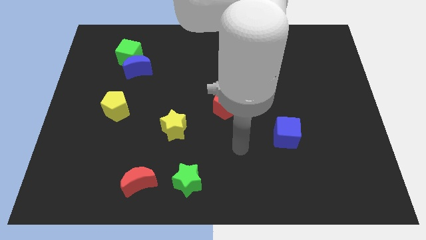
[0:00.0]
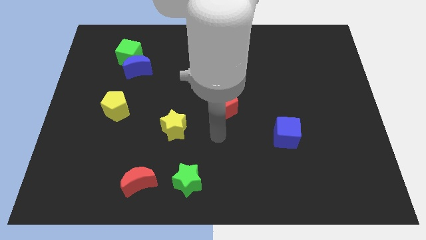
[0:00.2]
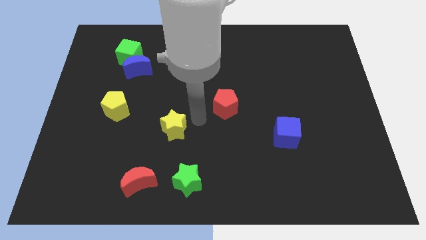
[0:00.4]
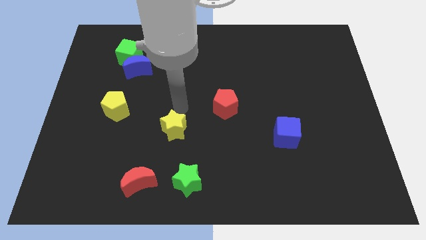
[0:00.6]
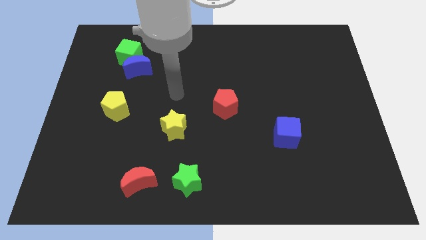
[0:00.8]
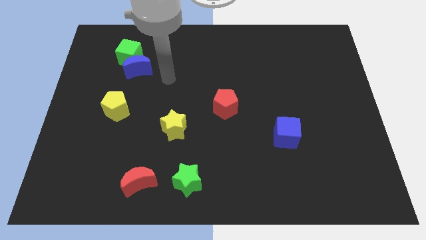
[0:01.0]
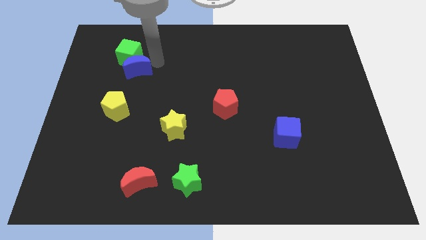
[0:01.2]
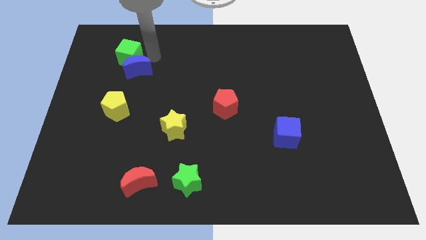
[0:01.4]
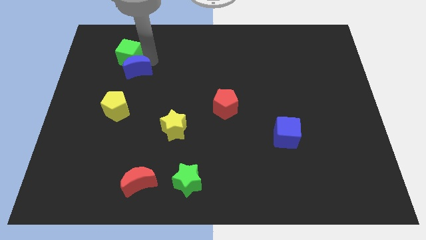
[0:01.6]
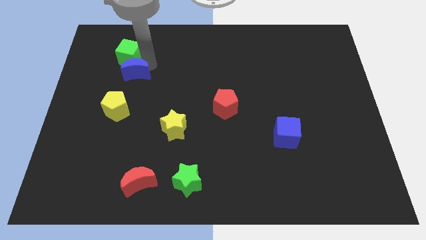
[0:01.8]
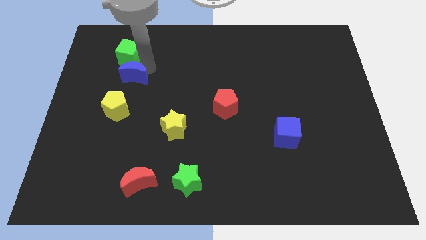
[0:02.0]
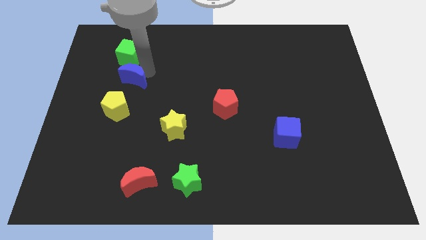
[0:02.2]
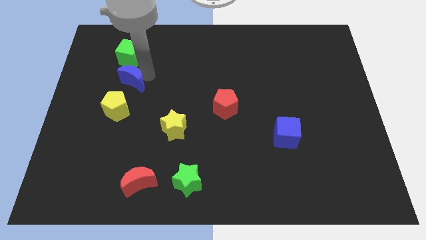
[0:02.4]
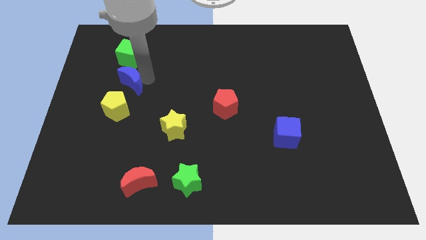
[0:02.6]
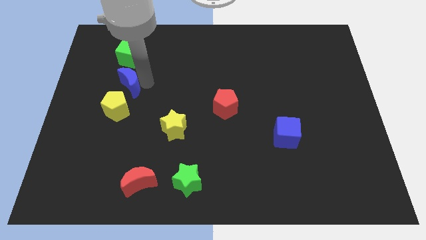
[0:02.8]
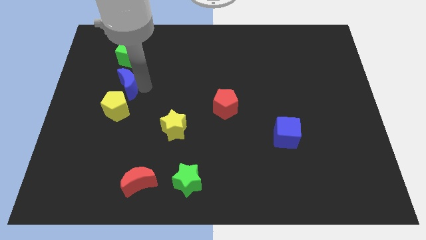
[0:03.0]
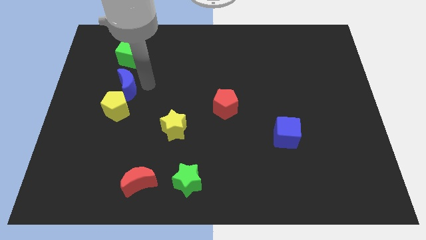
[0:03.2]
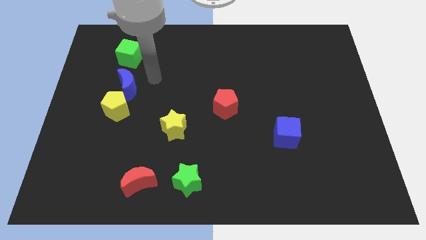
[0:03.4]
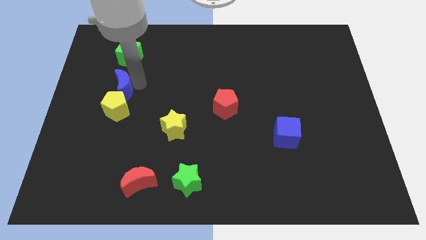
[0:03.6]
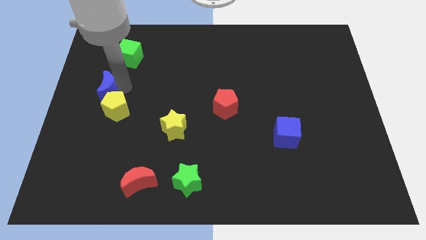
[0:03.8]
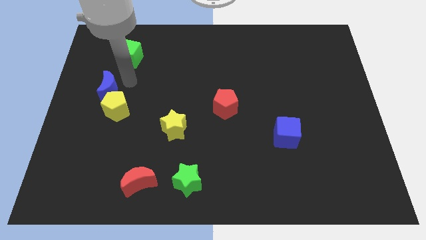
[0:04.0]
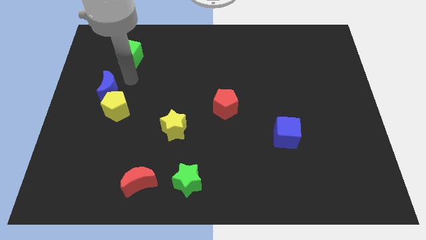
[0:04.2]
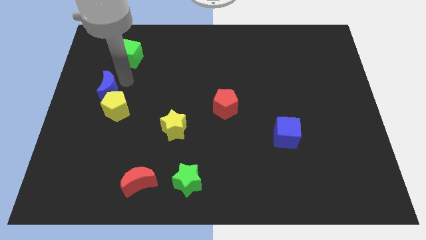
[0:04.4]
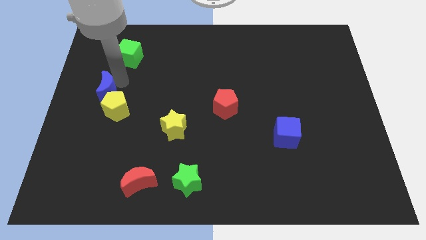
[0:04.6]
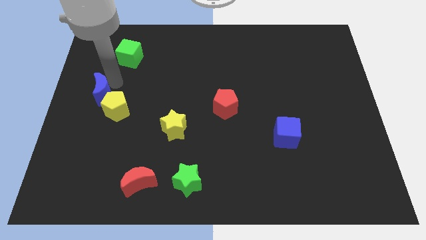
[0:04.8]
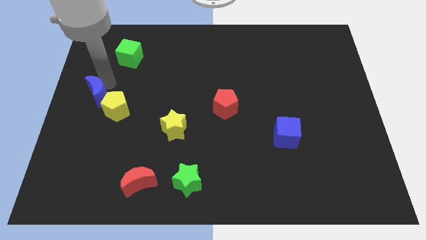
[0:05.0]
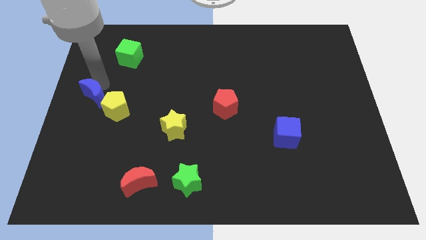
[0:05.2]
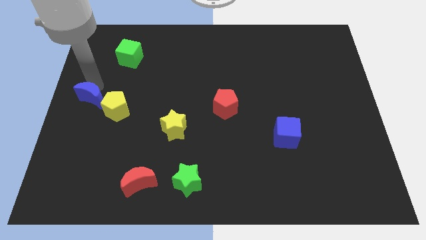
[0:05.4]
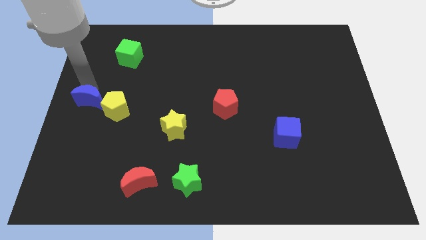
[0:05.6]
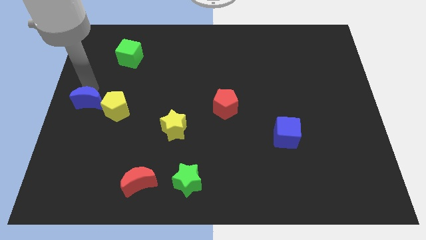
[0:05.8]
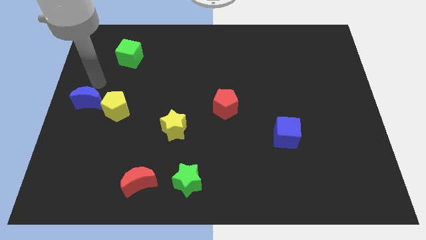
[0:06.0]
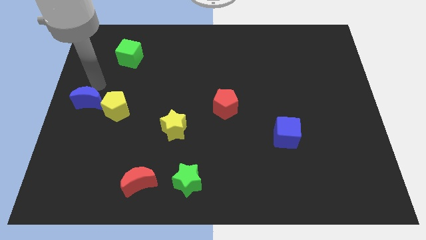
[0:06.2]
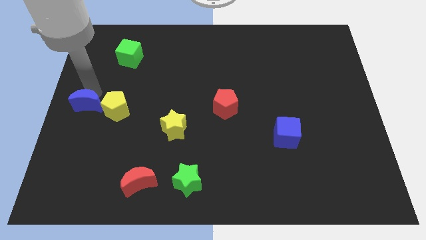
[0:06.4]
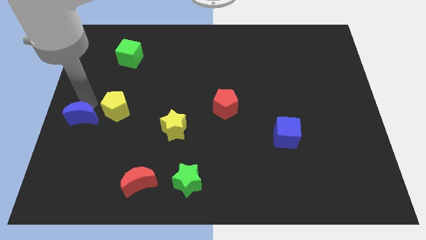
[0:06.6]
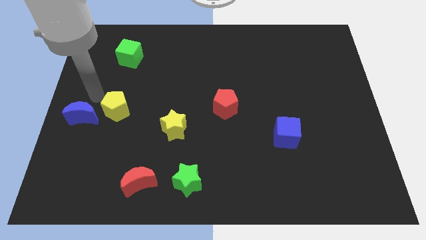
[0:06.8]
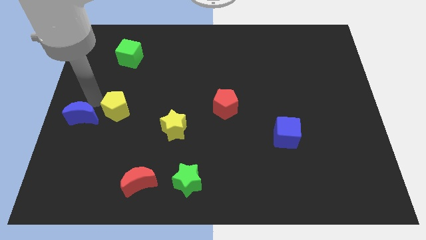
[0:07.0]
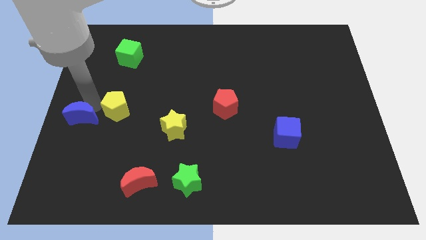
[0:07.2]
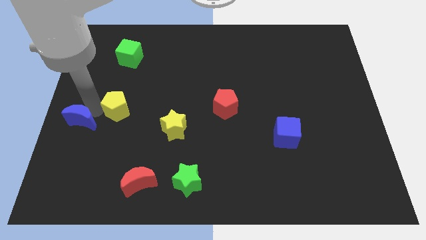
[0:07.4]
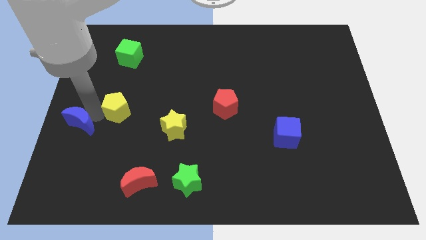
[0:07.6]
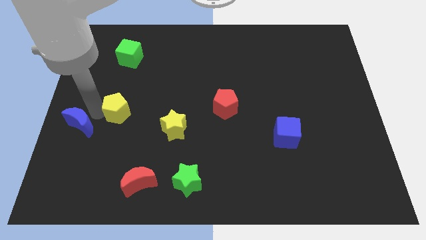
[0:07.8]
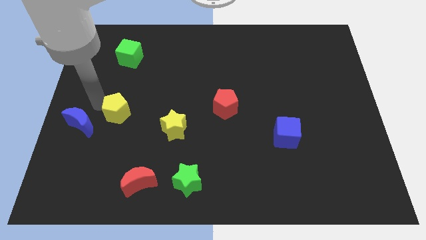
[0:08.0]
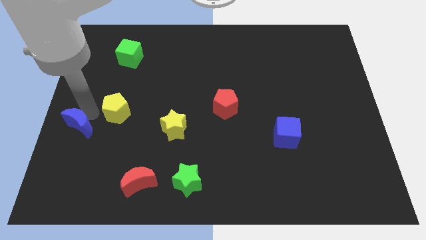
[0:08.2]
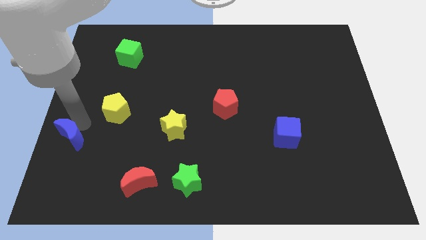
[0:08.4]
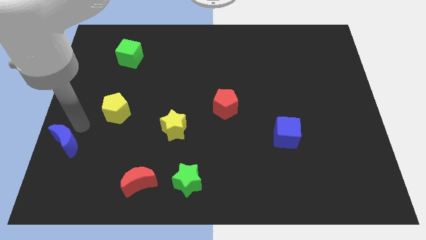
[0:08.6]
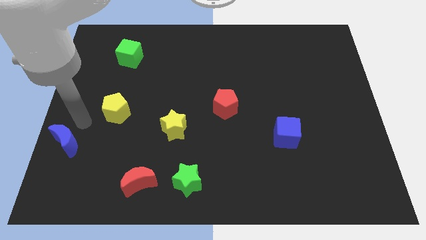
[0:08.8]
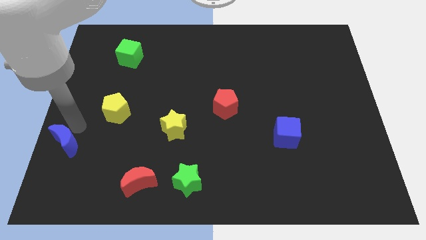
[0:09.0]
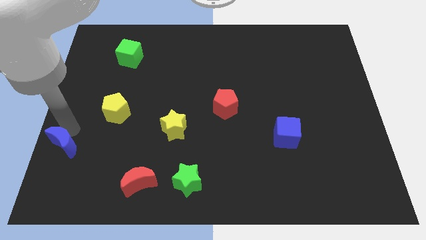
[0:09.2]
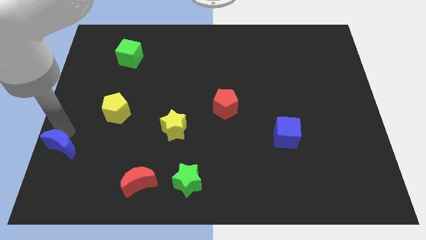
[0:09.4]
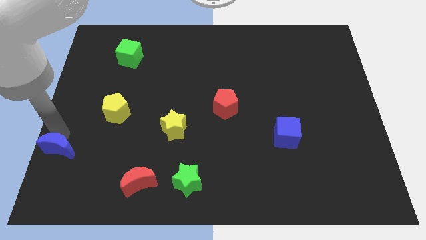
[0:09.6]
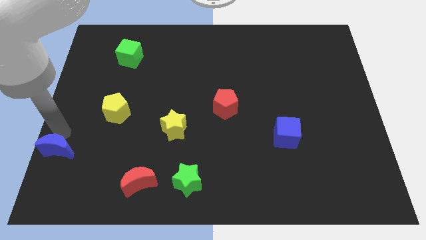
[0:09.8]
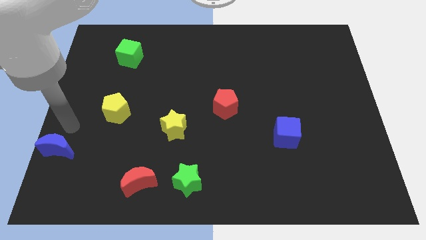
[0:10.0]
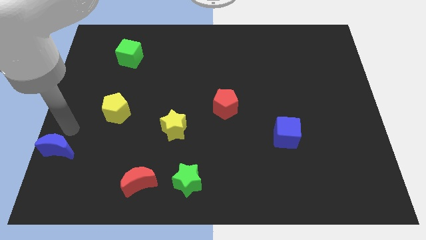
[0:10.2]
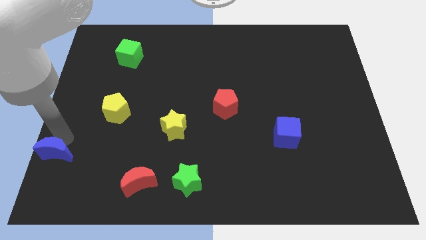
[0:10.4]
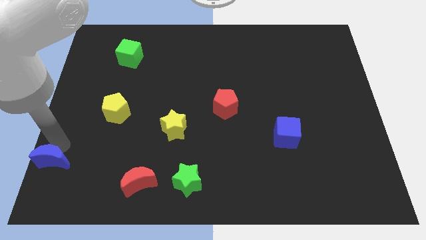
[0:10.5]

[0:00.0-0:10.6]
move the blue moon to the bottom left of the board

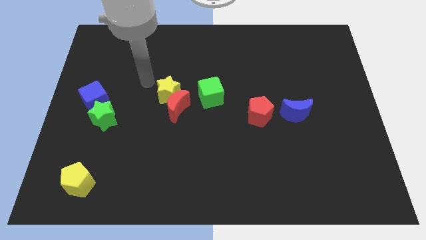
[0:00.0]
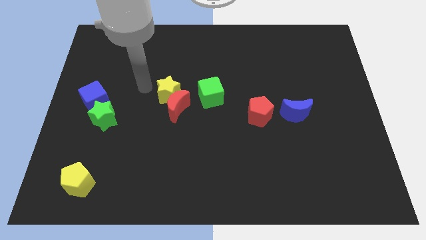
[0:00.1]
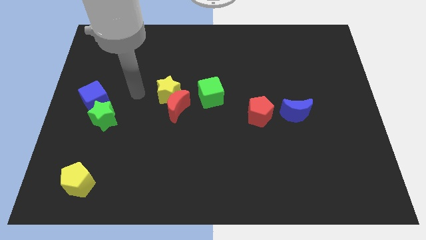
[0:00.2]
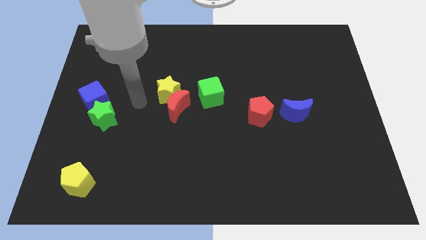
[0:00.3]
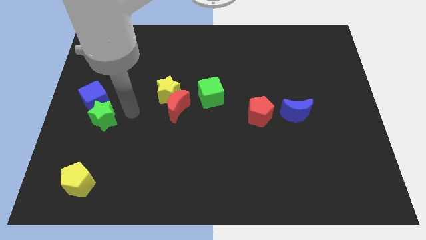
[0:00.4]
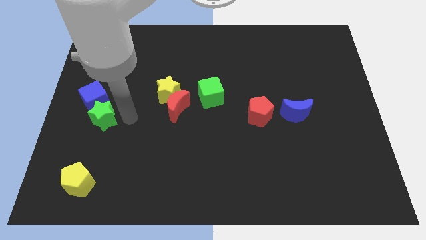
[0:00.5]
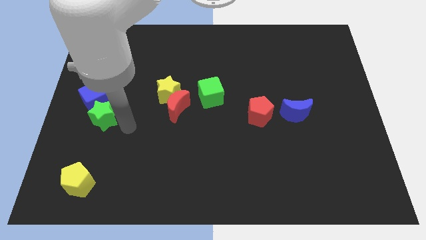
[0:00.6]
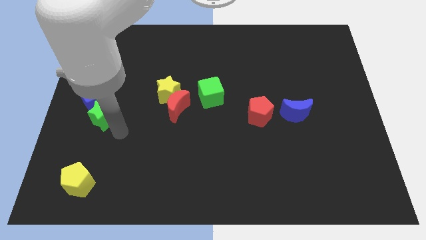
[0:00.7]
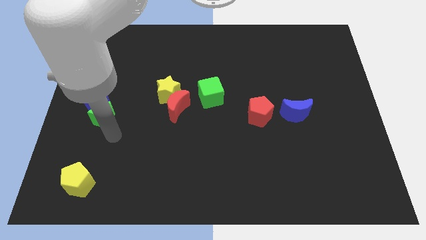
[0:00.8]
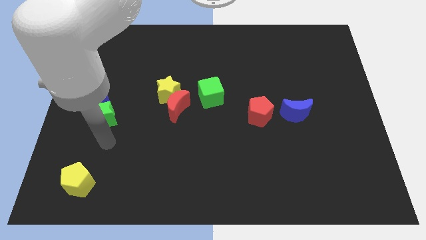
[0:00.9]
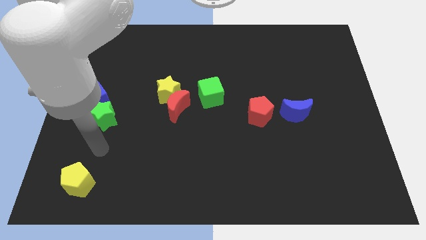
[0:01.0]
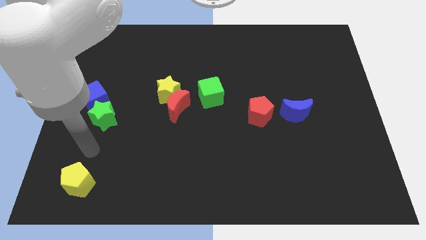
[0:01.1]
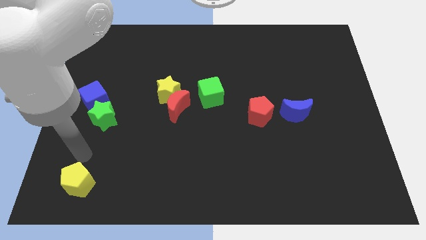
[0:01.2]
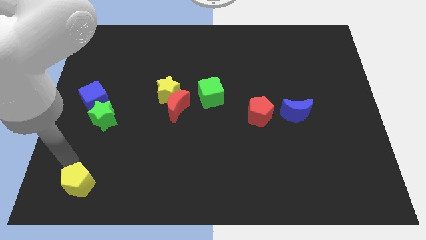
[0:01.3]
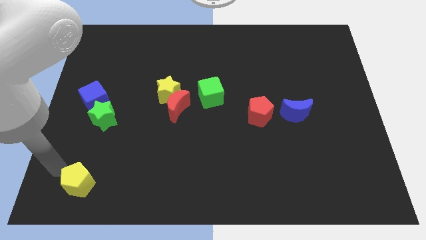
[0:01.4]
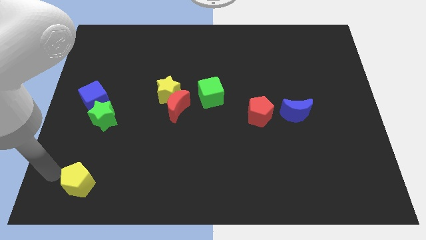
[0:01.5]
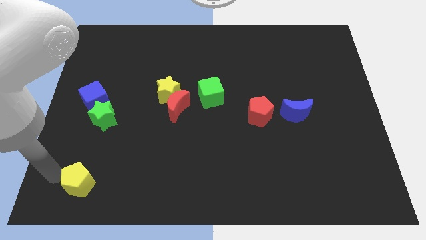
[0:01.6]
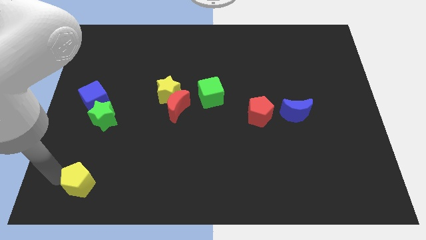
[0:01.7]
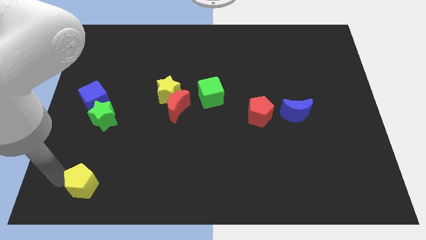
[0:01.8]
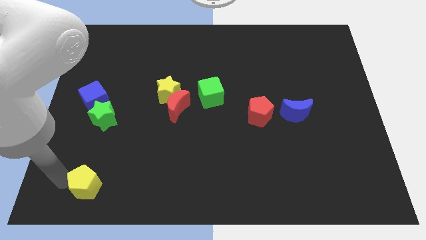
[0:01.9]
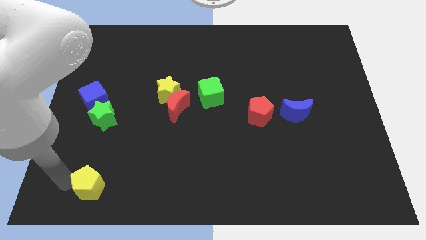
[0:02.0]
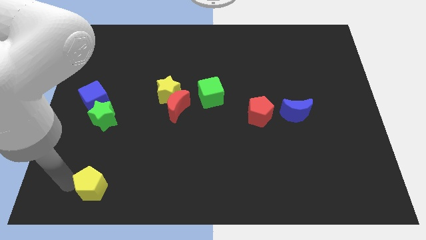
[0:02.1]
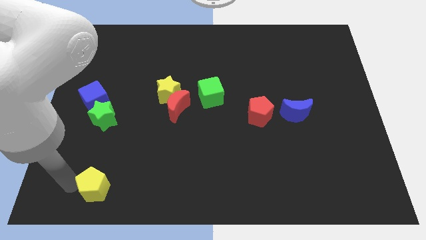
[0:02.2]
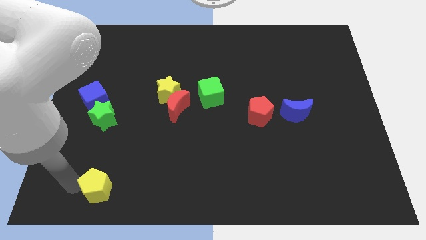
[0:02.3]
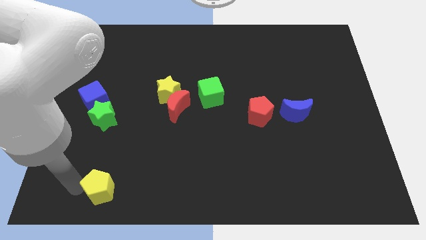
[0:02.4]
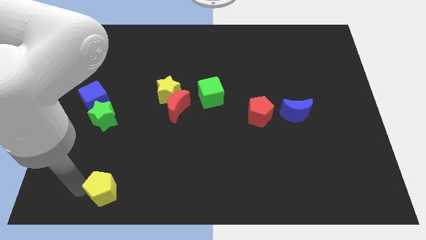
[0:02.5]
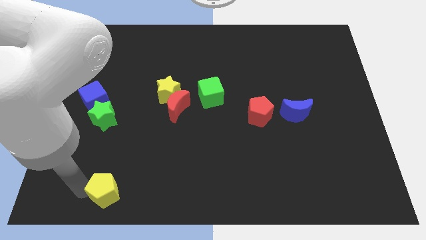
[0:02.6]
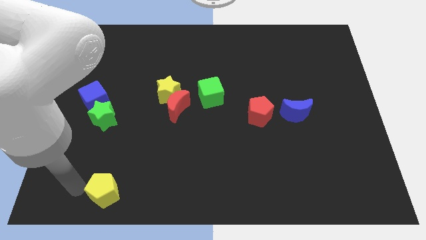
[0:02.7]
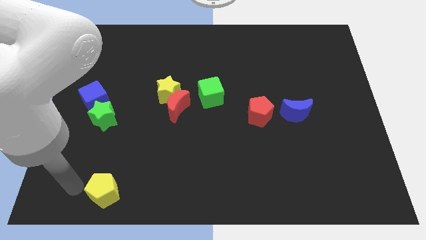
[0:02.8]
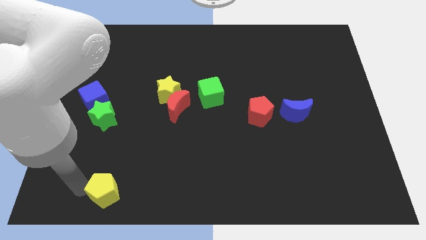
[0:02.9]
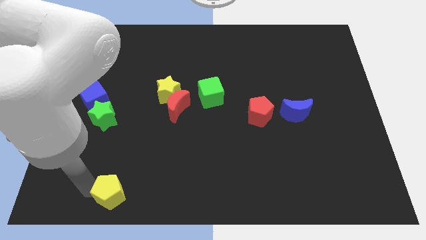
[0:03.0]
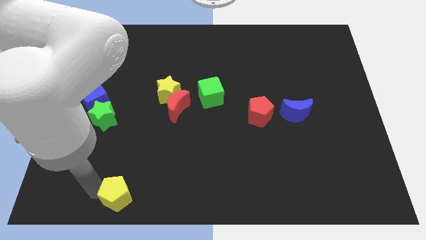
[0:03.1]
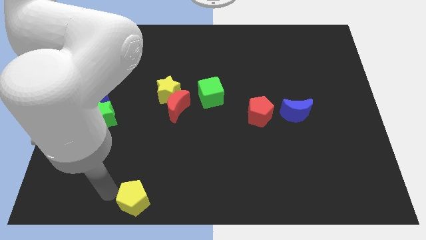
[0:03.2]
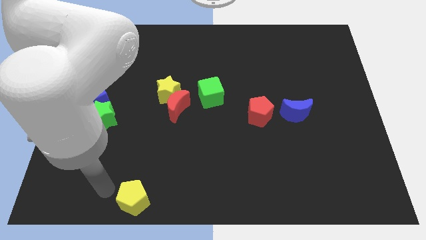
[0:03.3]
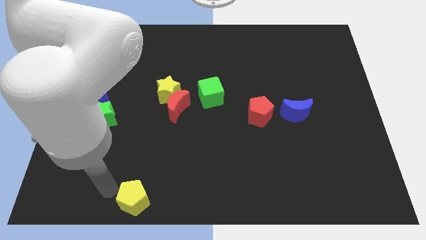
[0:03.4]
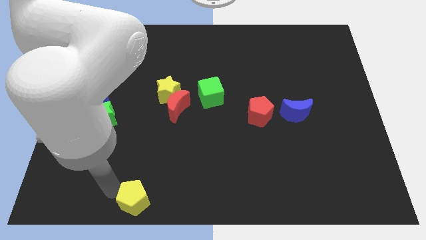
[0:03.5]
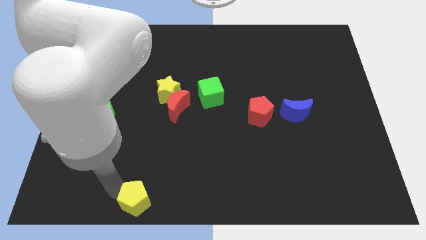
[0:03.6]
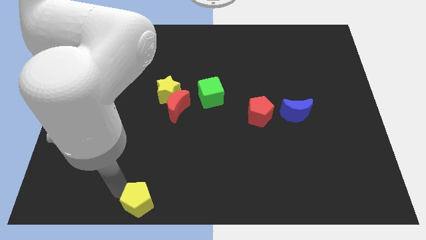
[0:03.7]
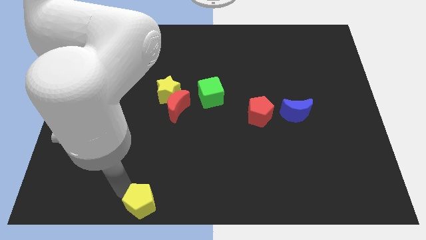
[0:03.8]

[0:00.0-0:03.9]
move the yellow pentagon to the bottom side
